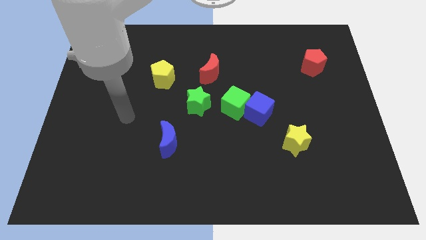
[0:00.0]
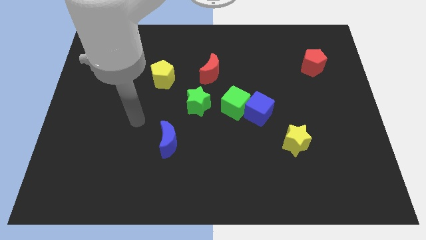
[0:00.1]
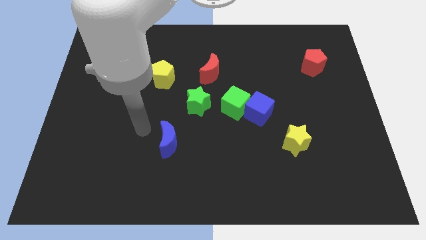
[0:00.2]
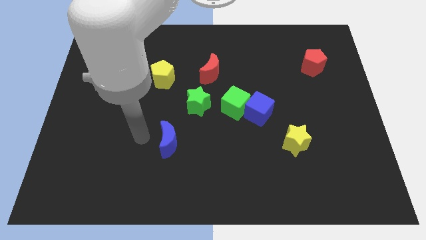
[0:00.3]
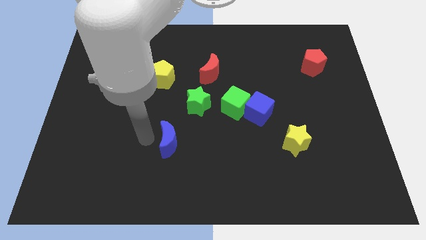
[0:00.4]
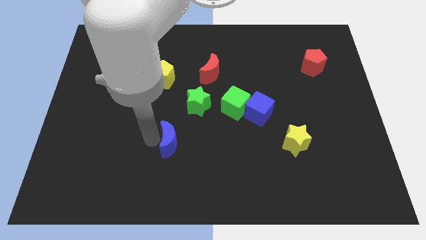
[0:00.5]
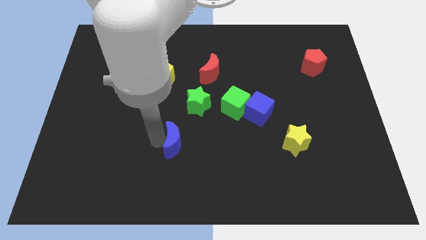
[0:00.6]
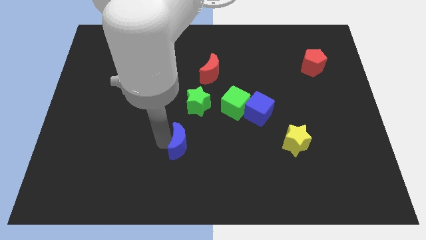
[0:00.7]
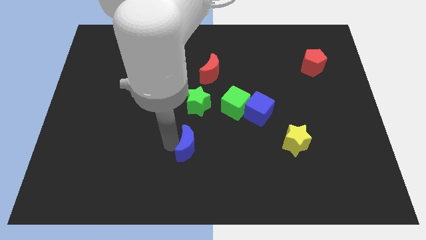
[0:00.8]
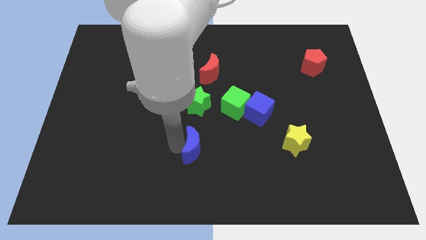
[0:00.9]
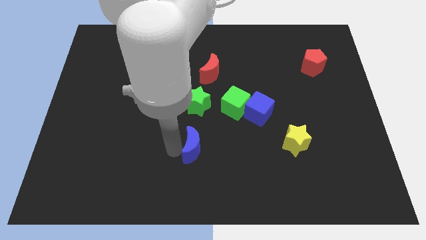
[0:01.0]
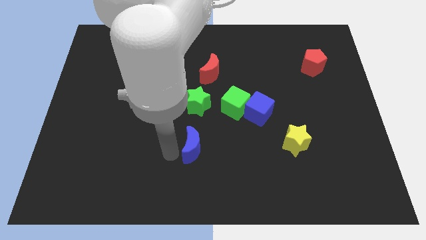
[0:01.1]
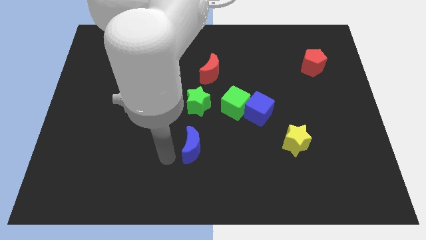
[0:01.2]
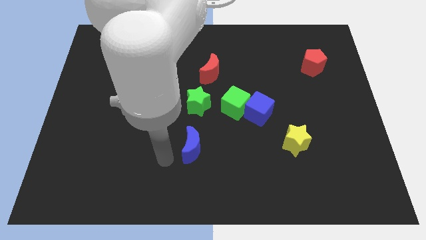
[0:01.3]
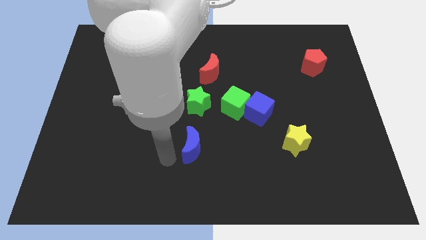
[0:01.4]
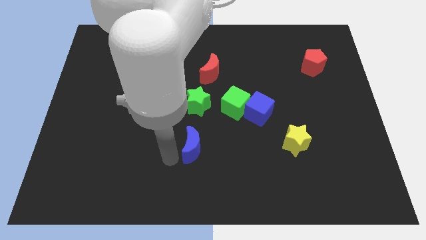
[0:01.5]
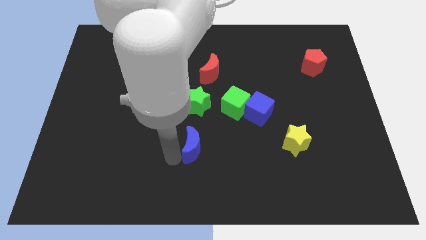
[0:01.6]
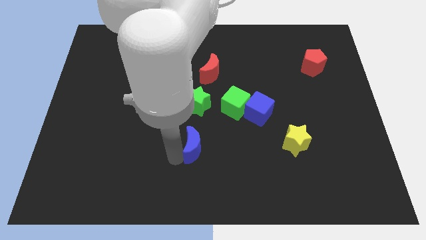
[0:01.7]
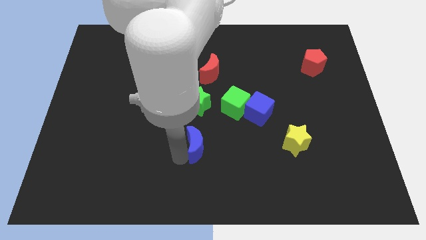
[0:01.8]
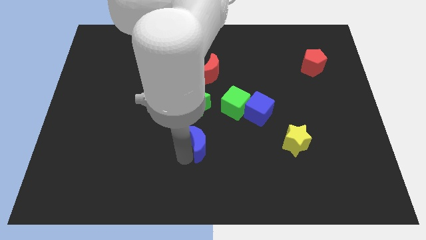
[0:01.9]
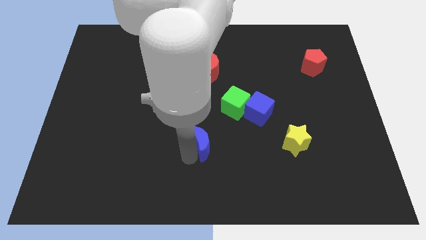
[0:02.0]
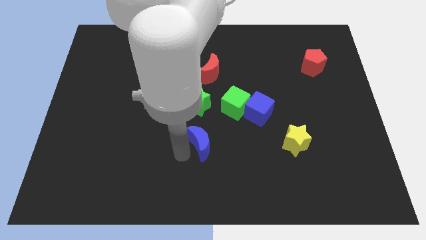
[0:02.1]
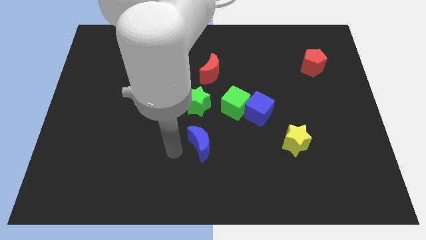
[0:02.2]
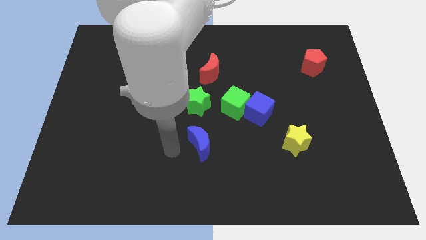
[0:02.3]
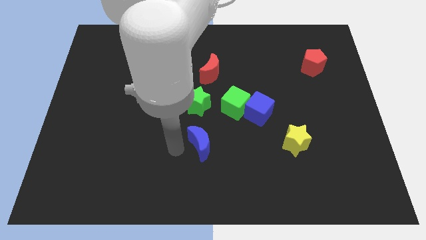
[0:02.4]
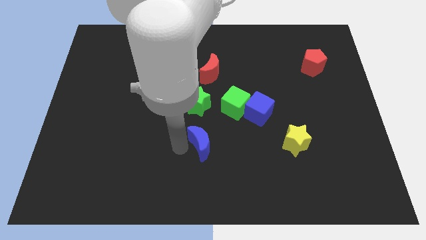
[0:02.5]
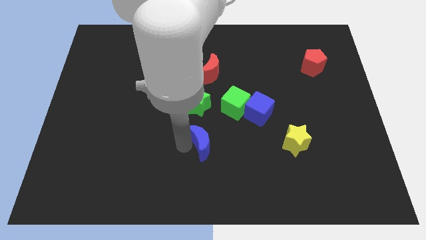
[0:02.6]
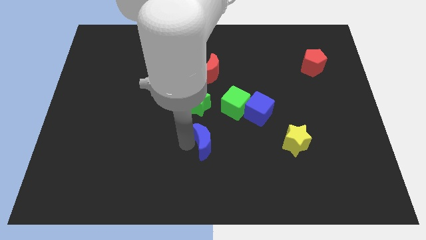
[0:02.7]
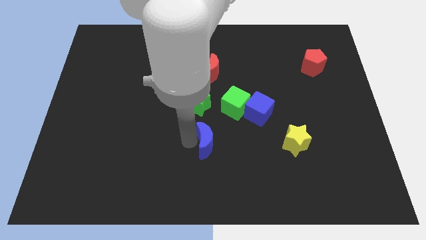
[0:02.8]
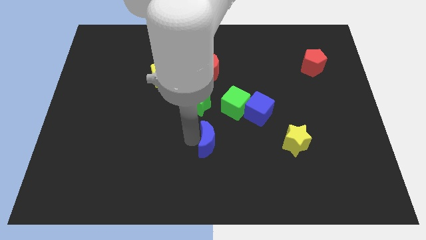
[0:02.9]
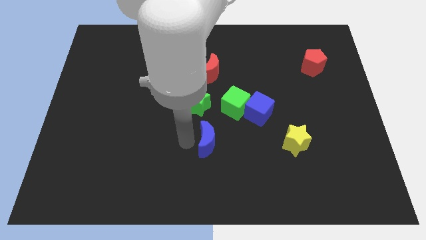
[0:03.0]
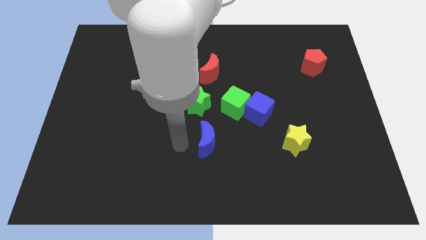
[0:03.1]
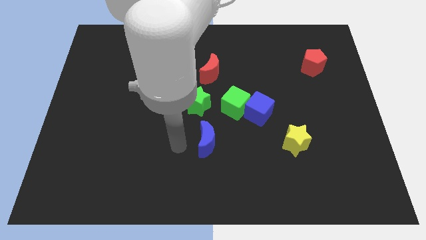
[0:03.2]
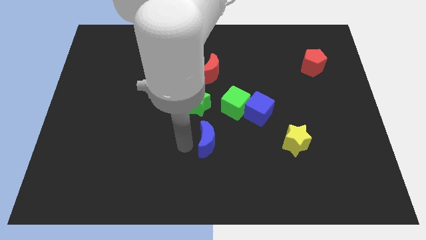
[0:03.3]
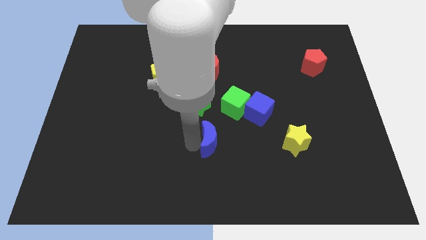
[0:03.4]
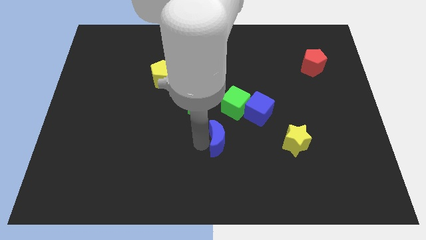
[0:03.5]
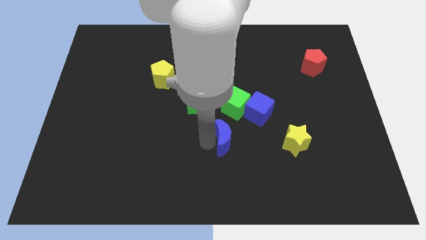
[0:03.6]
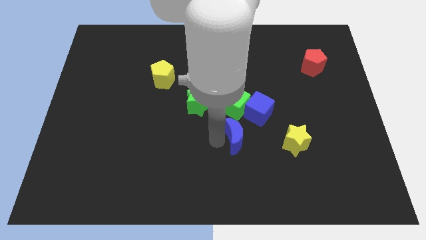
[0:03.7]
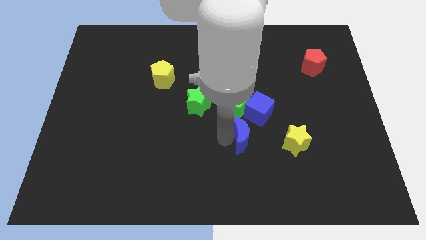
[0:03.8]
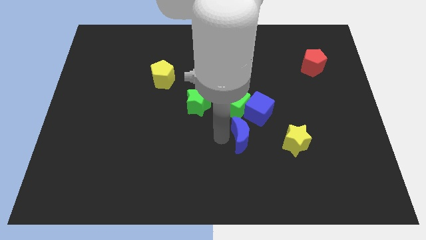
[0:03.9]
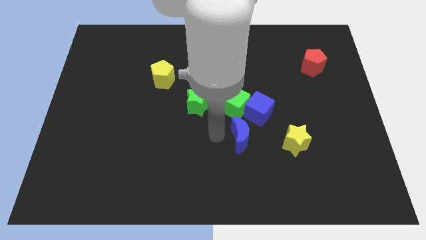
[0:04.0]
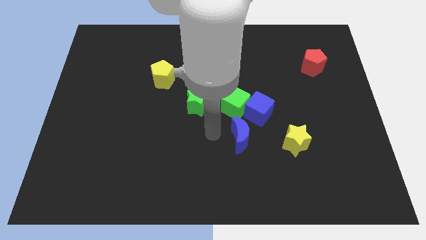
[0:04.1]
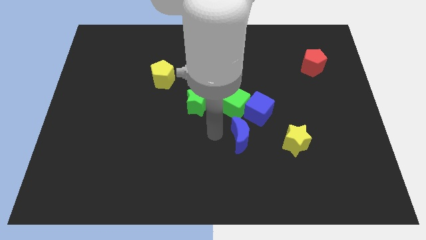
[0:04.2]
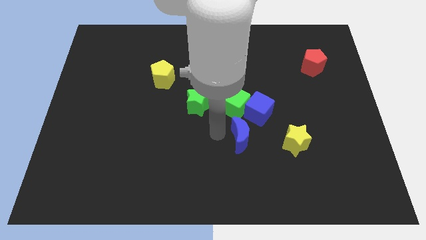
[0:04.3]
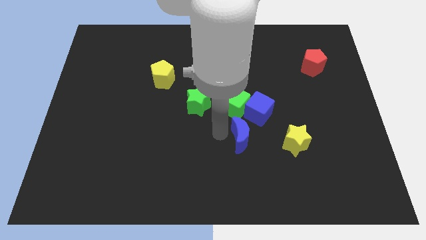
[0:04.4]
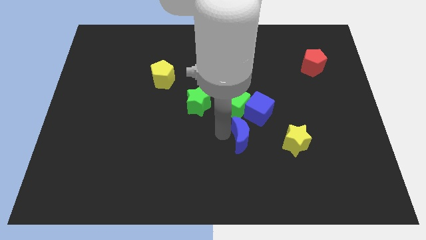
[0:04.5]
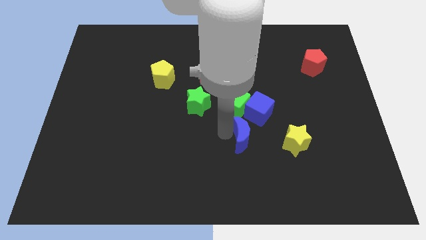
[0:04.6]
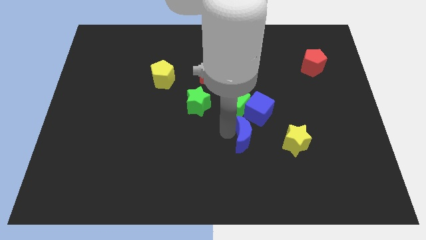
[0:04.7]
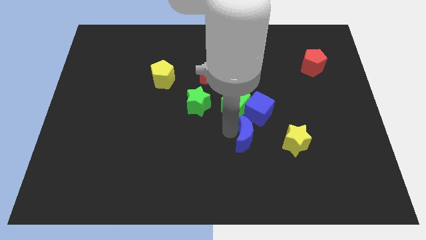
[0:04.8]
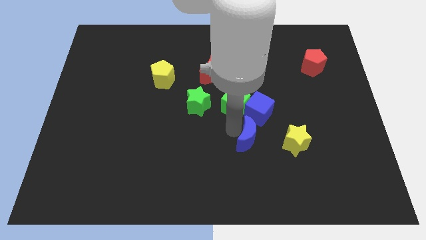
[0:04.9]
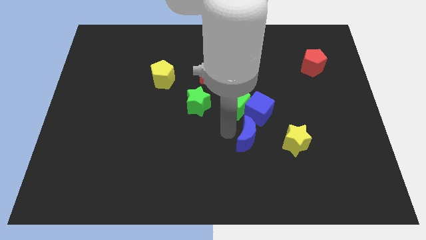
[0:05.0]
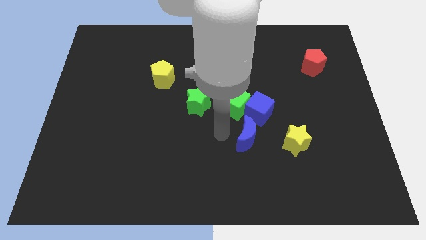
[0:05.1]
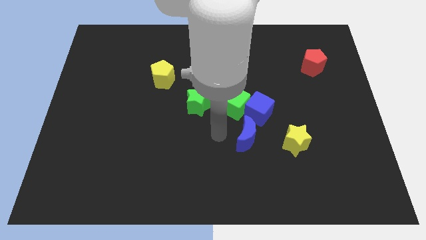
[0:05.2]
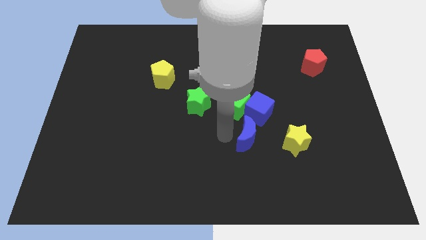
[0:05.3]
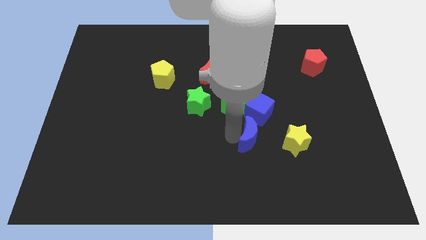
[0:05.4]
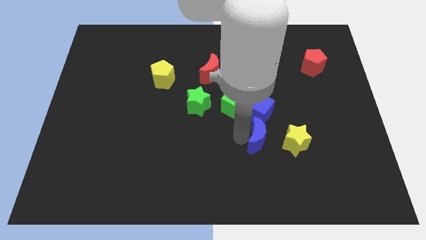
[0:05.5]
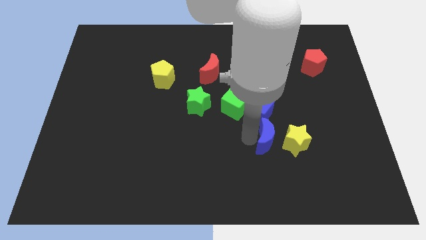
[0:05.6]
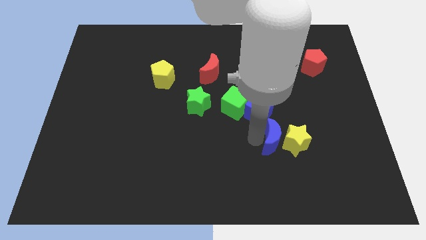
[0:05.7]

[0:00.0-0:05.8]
put the blue moon next to the yellow star

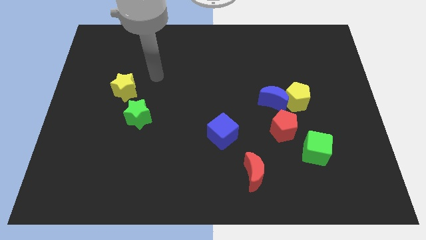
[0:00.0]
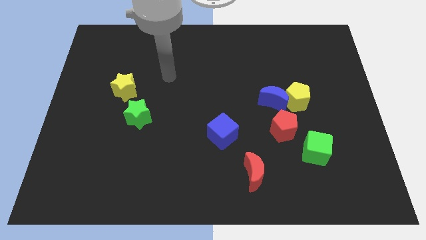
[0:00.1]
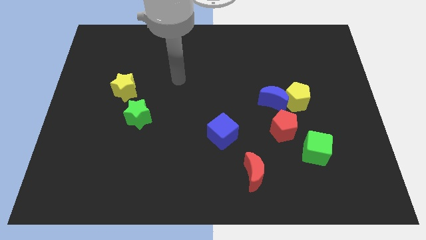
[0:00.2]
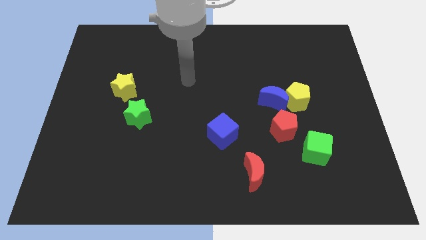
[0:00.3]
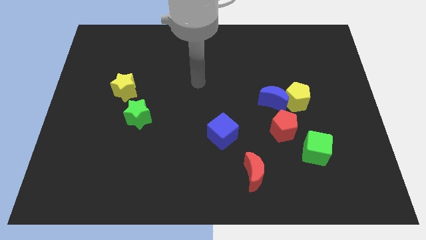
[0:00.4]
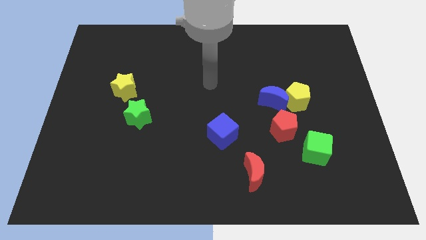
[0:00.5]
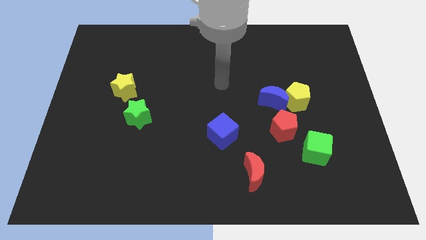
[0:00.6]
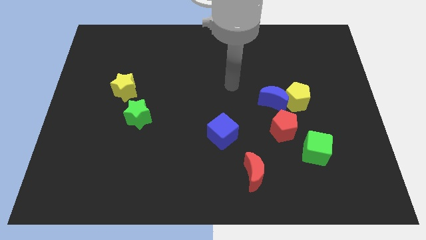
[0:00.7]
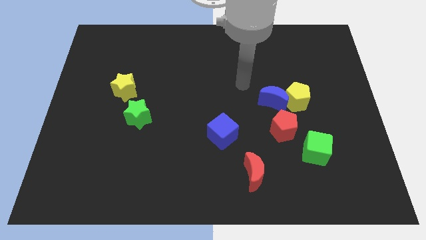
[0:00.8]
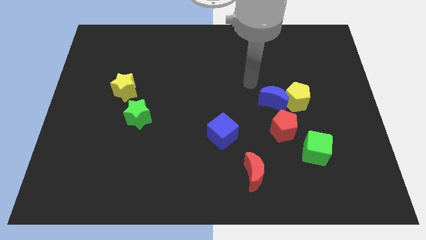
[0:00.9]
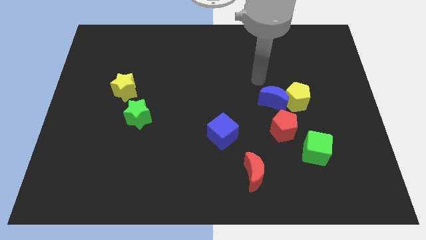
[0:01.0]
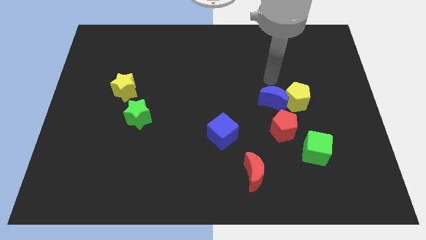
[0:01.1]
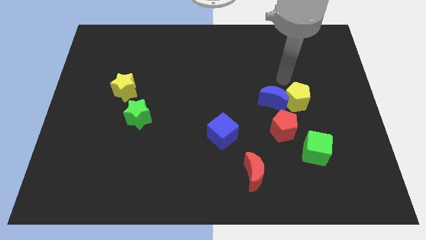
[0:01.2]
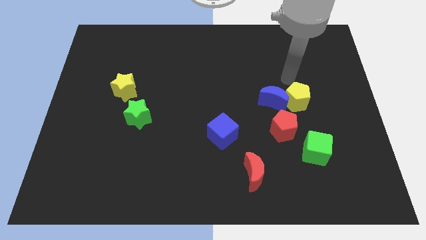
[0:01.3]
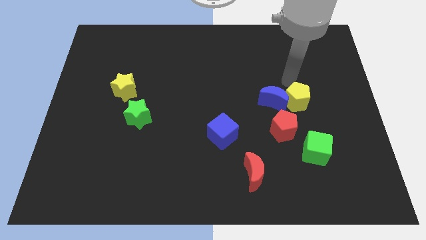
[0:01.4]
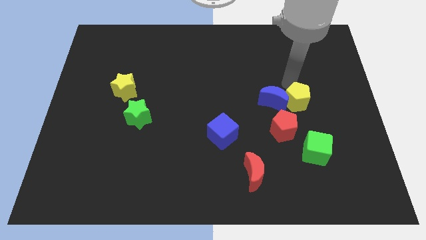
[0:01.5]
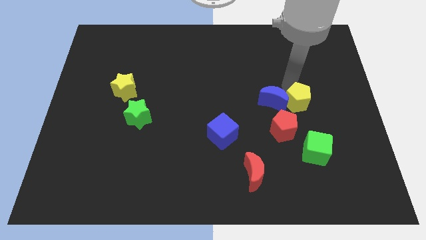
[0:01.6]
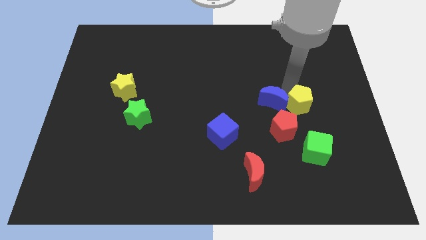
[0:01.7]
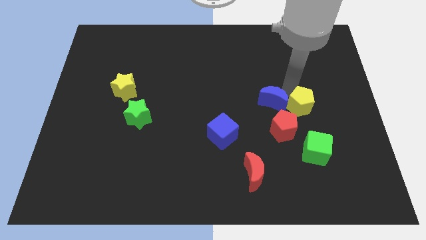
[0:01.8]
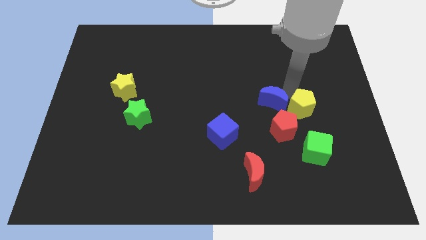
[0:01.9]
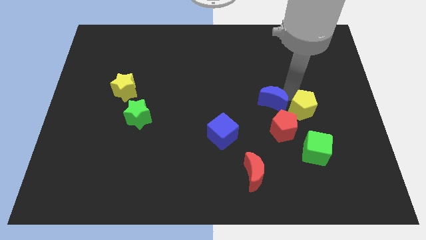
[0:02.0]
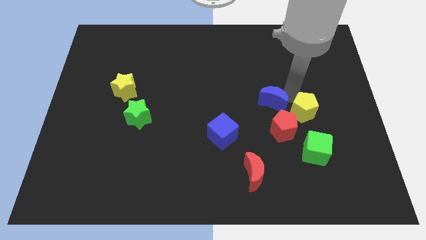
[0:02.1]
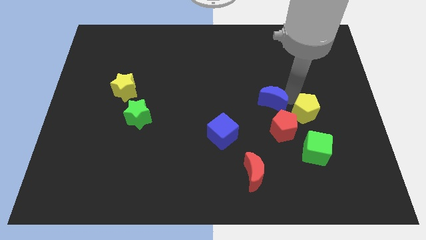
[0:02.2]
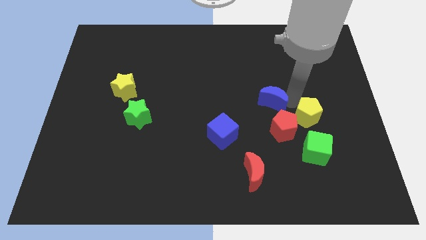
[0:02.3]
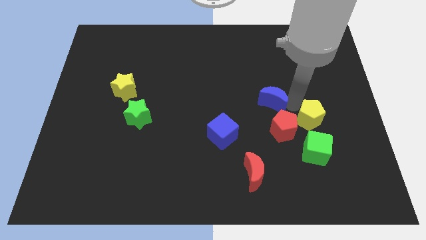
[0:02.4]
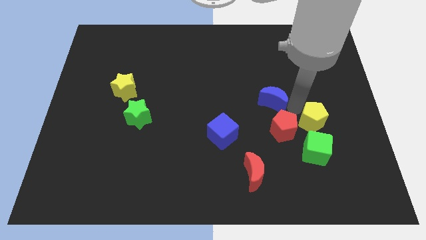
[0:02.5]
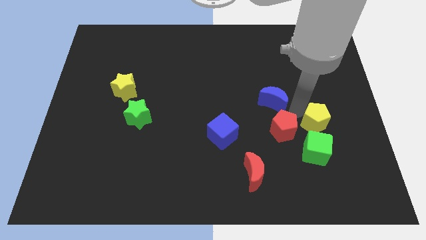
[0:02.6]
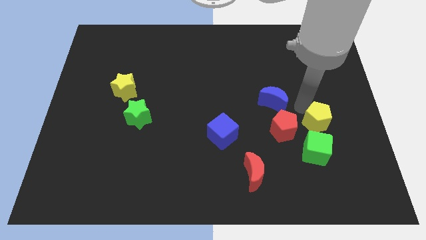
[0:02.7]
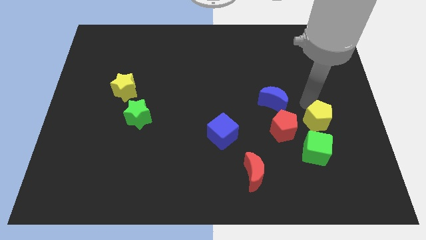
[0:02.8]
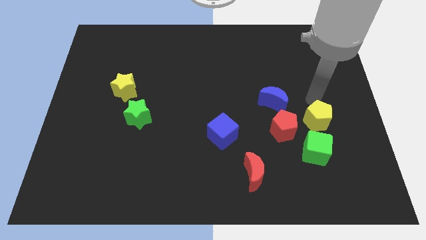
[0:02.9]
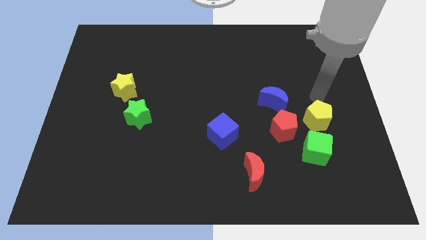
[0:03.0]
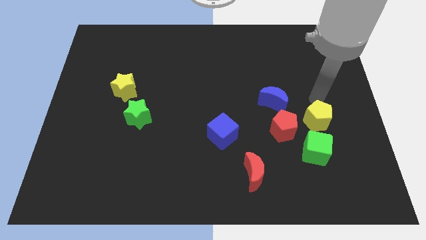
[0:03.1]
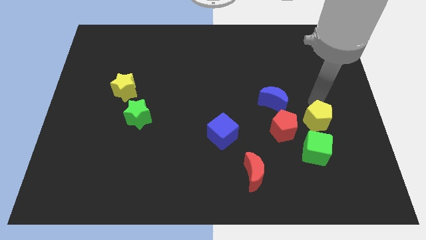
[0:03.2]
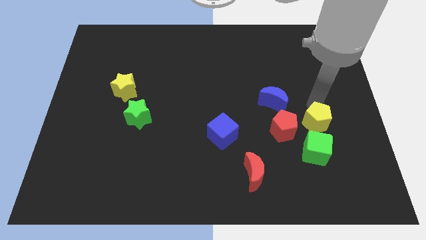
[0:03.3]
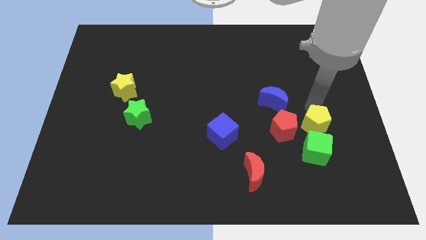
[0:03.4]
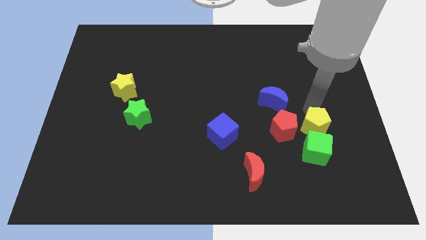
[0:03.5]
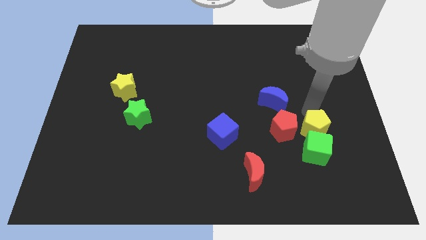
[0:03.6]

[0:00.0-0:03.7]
put the yellow pentagon towards the green cube
